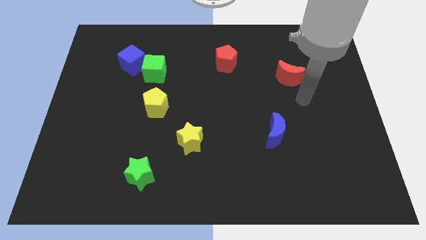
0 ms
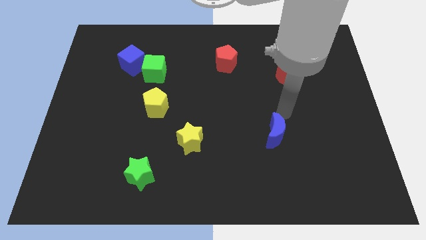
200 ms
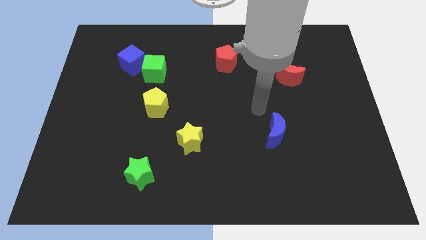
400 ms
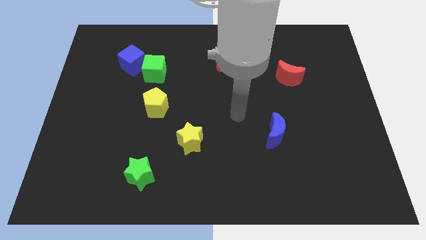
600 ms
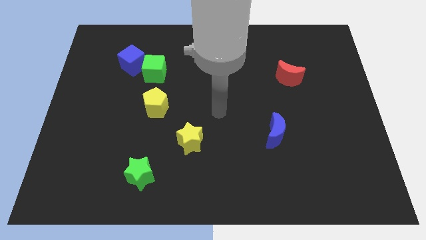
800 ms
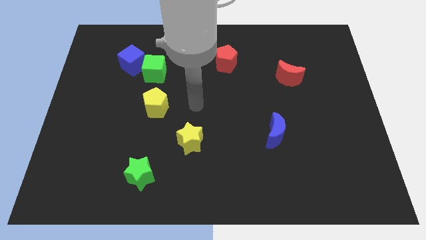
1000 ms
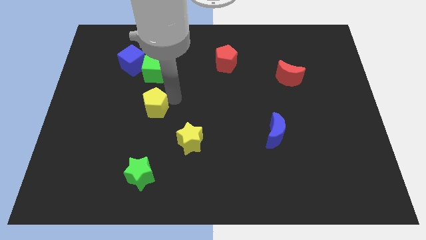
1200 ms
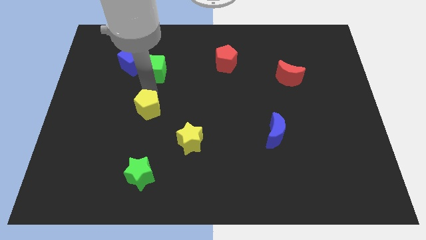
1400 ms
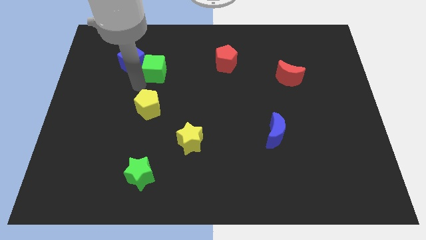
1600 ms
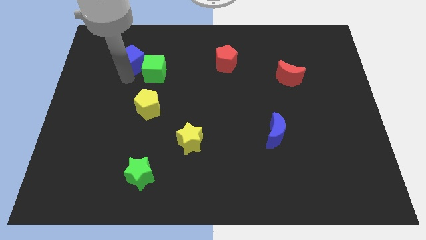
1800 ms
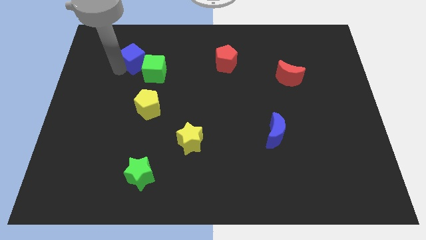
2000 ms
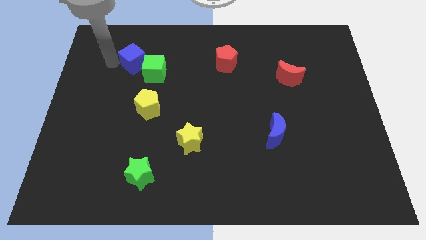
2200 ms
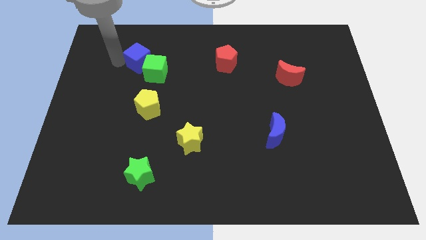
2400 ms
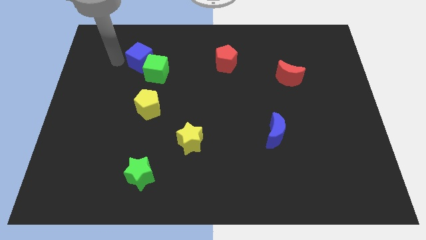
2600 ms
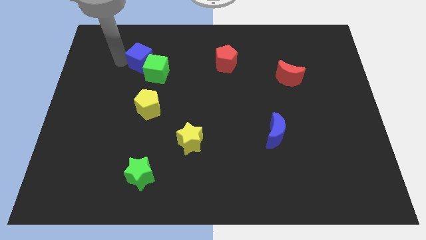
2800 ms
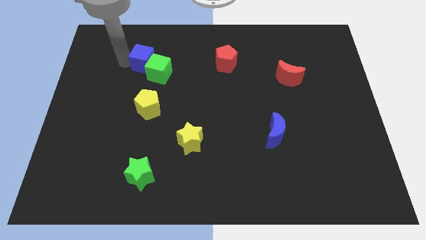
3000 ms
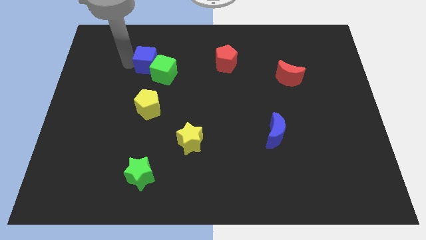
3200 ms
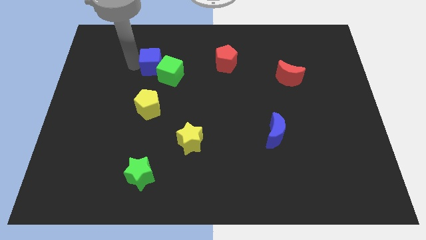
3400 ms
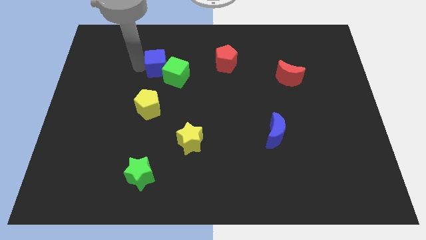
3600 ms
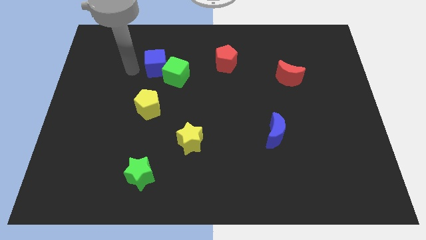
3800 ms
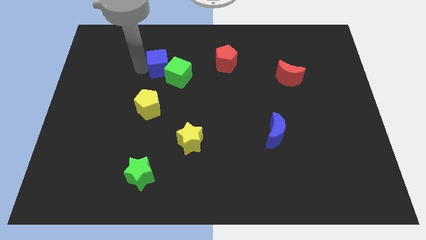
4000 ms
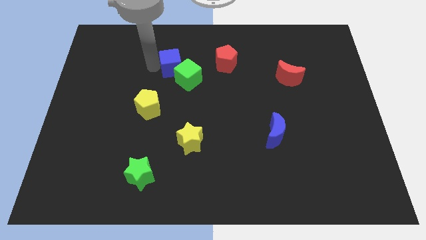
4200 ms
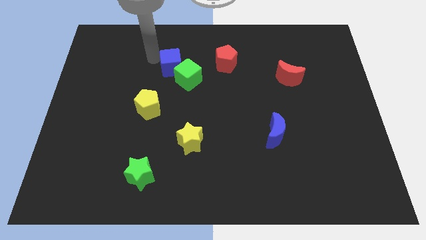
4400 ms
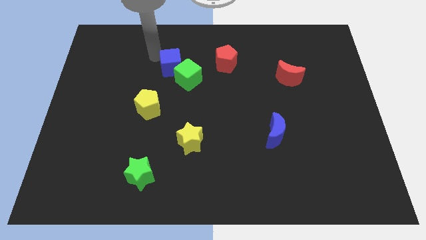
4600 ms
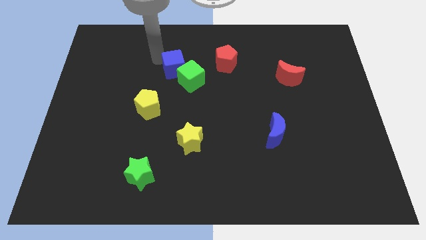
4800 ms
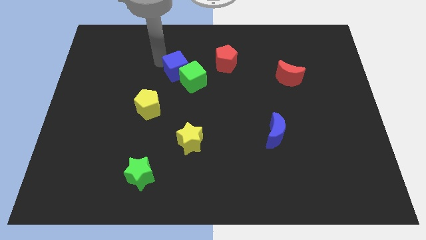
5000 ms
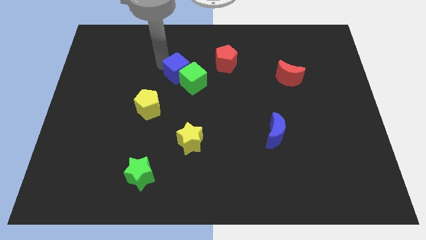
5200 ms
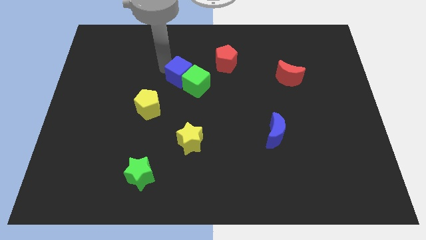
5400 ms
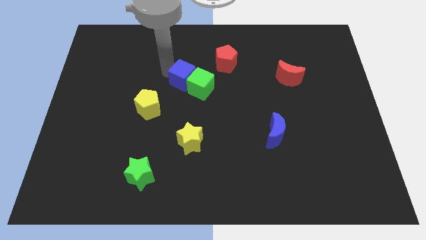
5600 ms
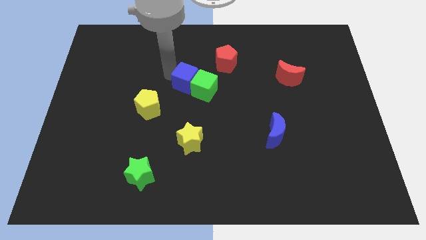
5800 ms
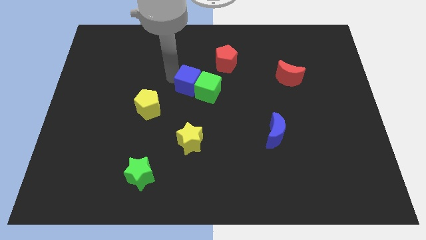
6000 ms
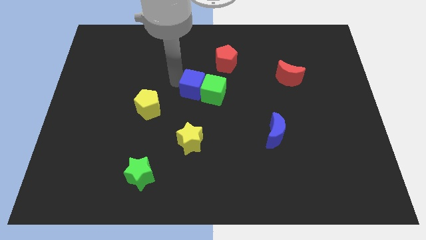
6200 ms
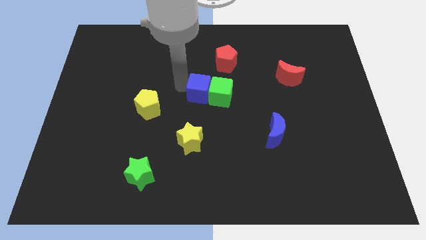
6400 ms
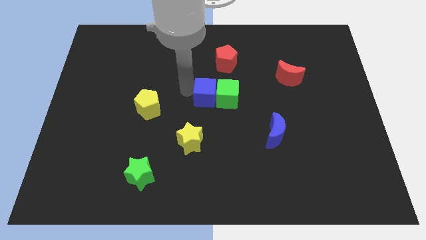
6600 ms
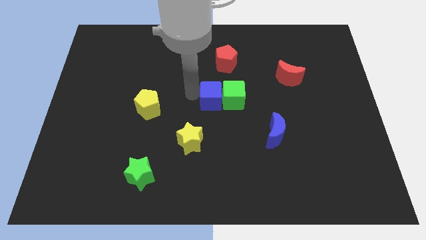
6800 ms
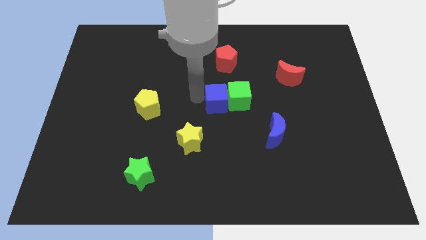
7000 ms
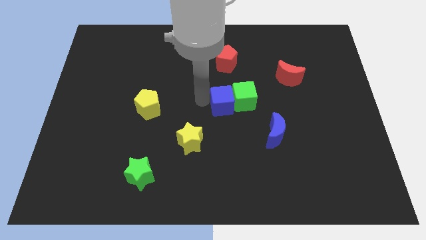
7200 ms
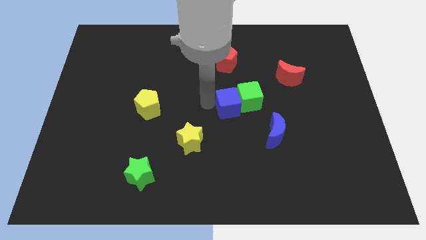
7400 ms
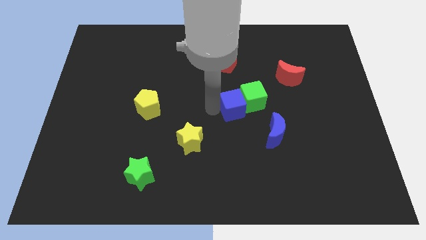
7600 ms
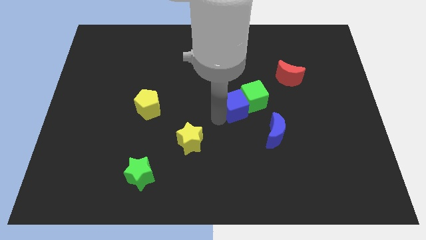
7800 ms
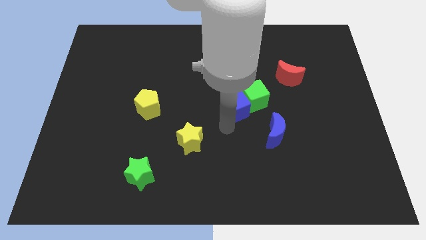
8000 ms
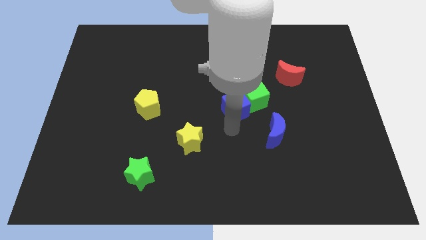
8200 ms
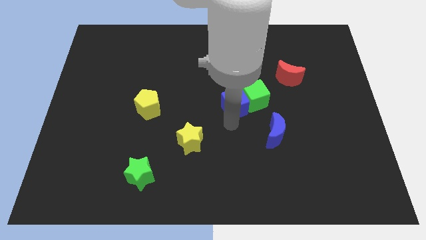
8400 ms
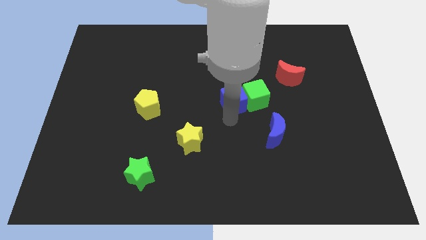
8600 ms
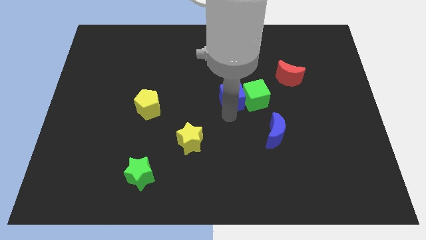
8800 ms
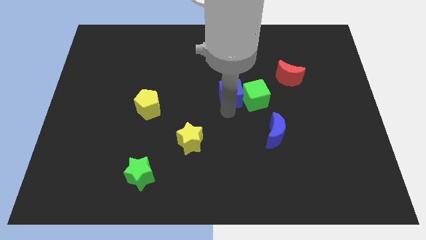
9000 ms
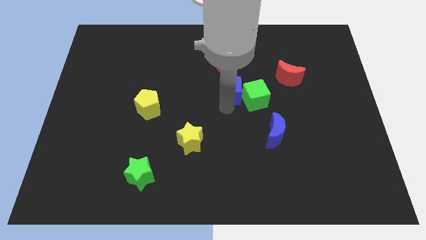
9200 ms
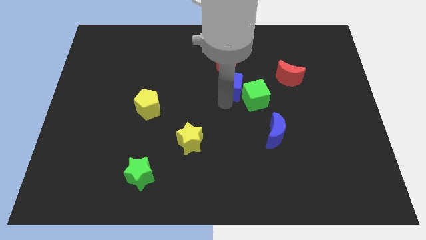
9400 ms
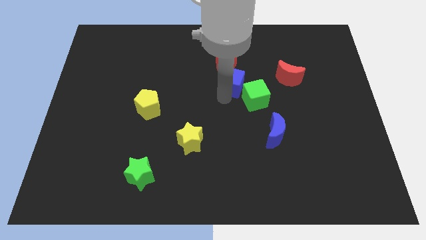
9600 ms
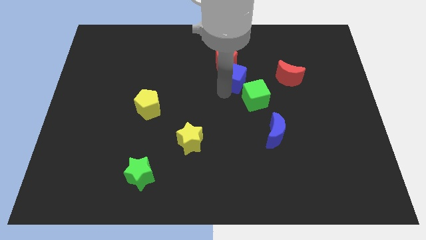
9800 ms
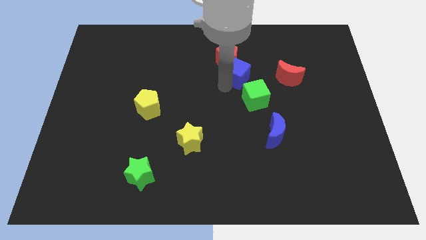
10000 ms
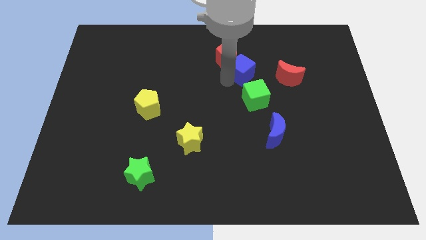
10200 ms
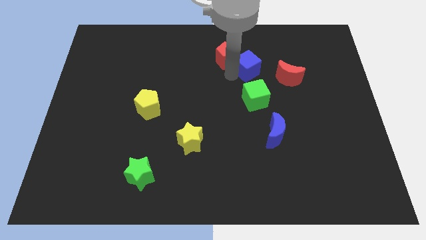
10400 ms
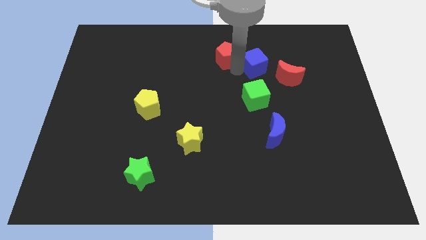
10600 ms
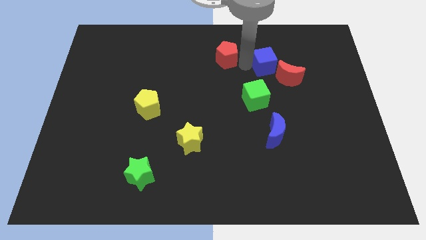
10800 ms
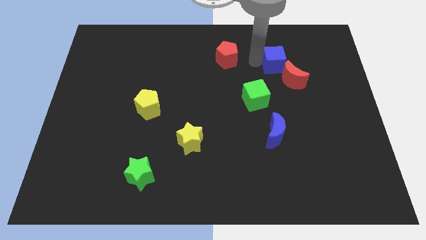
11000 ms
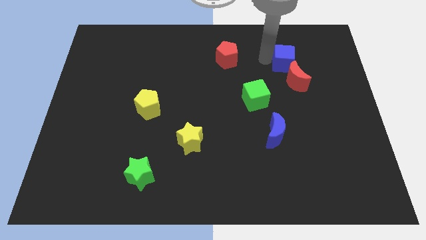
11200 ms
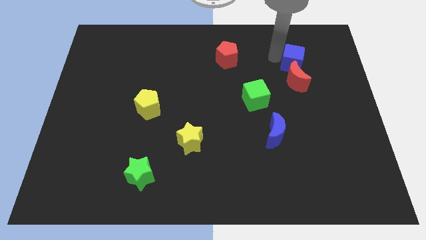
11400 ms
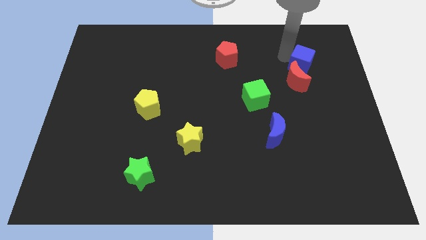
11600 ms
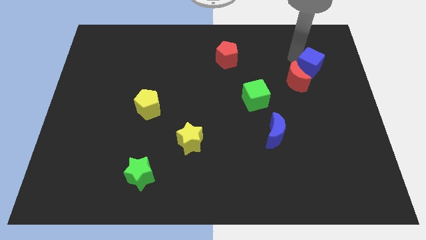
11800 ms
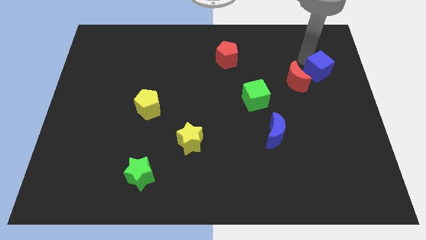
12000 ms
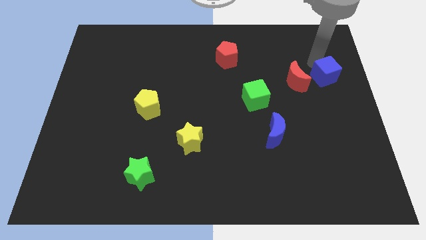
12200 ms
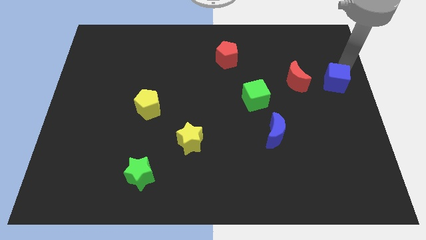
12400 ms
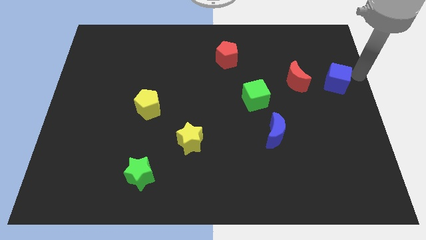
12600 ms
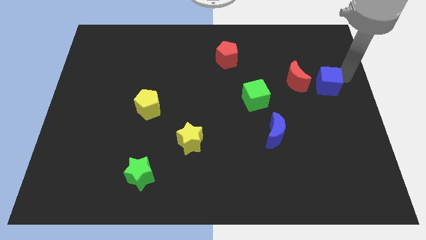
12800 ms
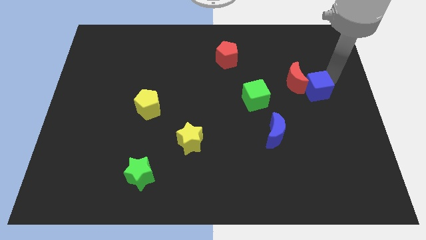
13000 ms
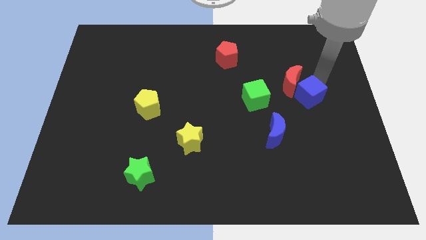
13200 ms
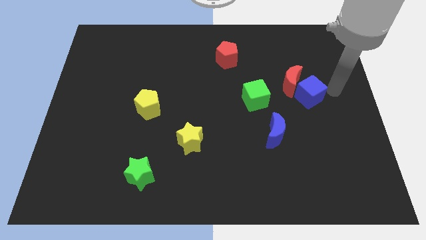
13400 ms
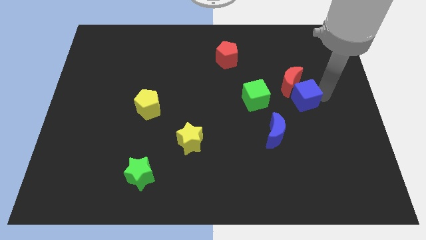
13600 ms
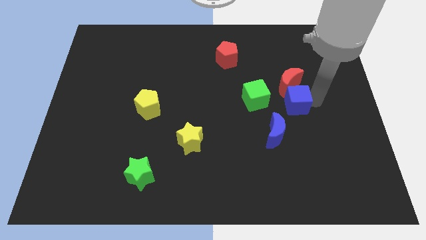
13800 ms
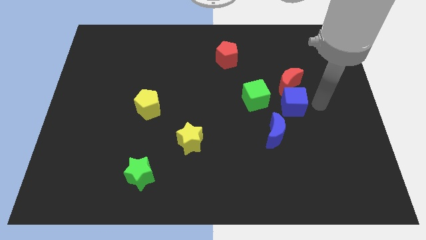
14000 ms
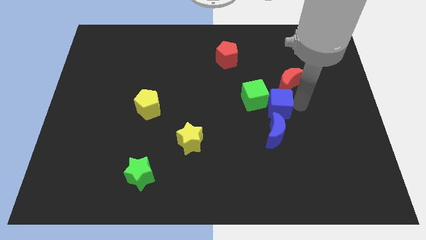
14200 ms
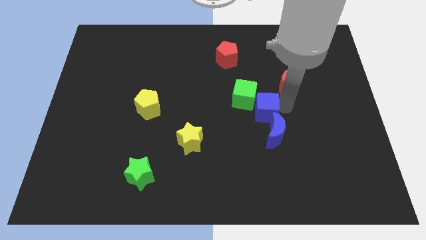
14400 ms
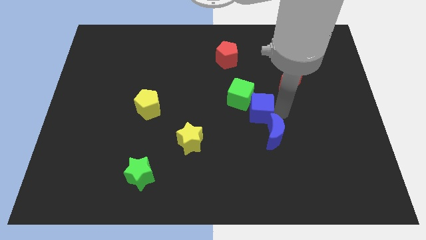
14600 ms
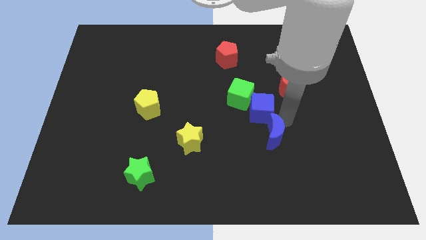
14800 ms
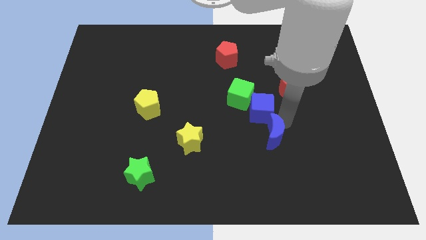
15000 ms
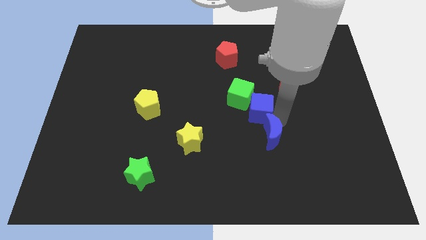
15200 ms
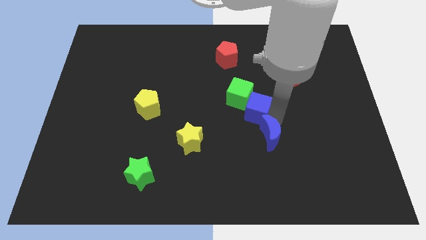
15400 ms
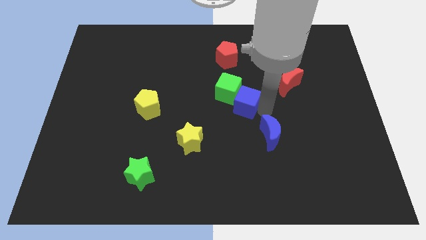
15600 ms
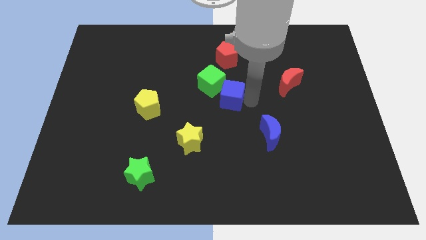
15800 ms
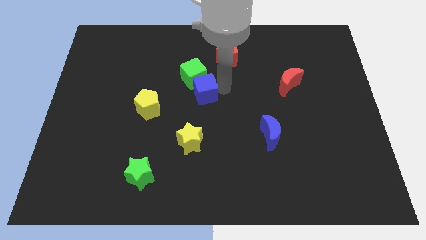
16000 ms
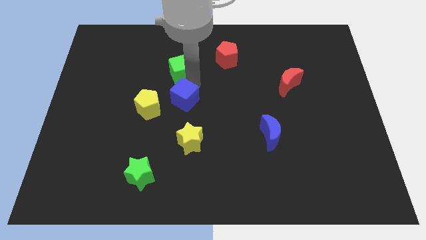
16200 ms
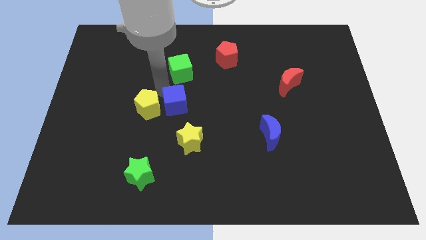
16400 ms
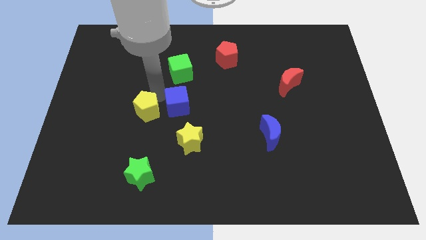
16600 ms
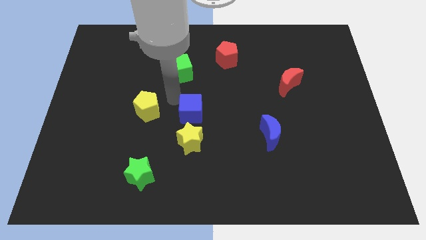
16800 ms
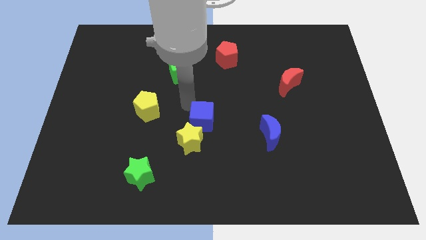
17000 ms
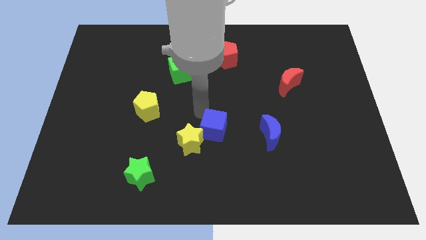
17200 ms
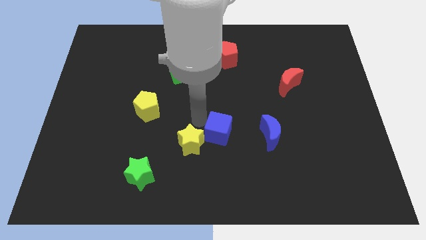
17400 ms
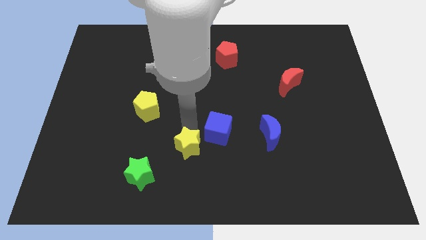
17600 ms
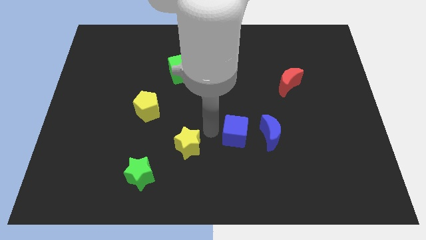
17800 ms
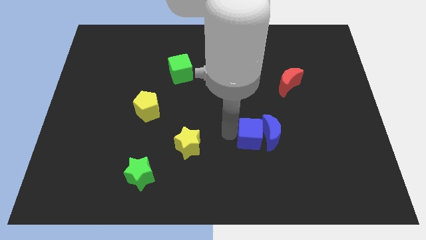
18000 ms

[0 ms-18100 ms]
put the blue cube towards the blue moon
